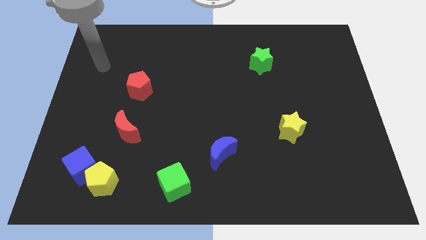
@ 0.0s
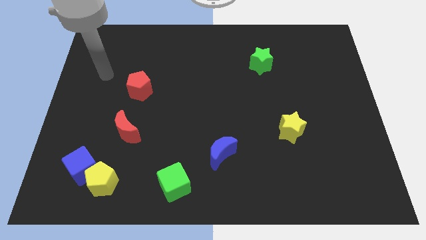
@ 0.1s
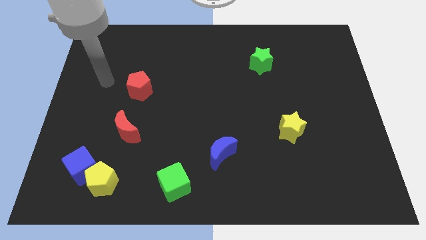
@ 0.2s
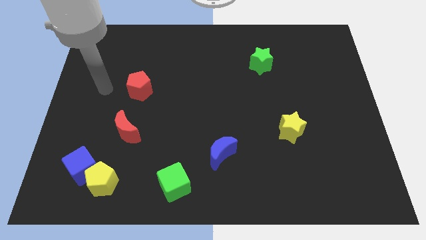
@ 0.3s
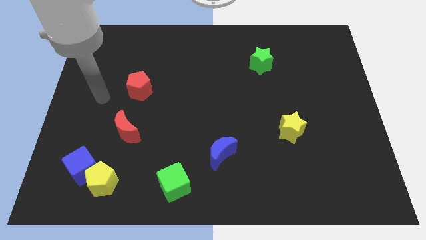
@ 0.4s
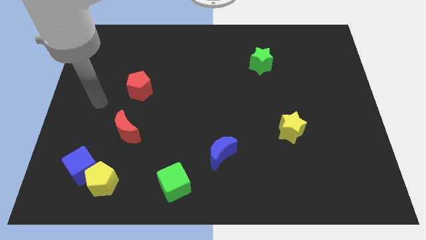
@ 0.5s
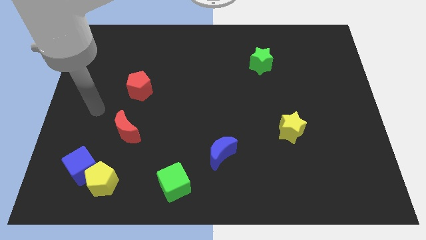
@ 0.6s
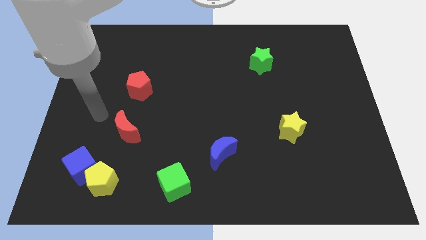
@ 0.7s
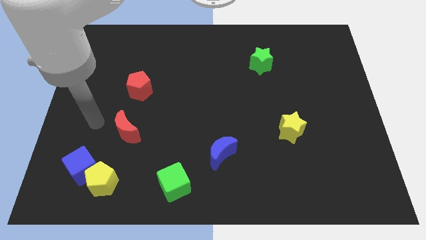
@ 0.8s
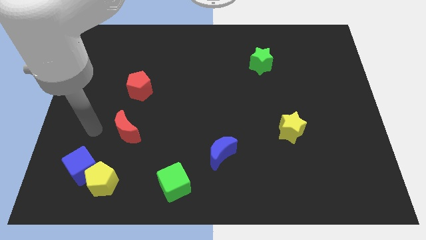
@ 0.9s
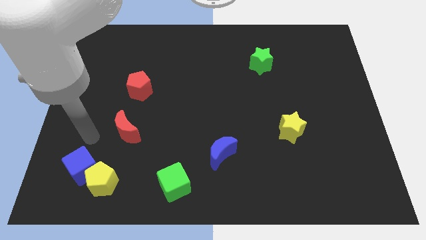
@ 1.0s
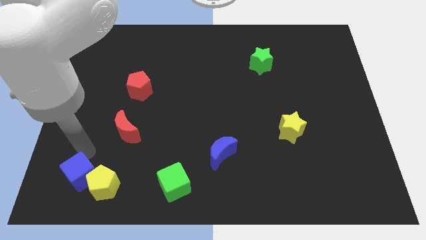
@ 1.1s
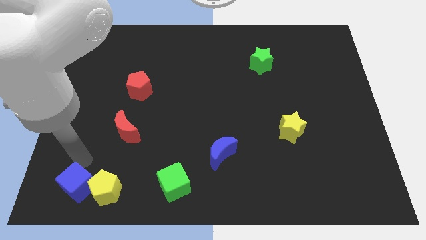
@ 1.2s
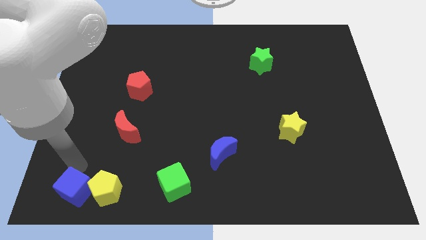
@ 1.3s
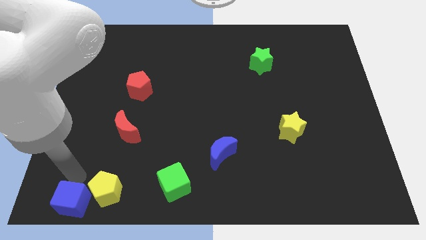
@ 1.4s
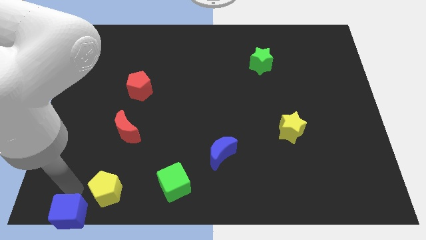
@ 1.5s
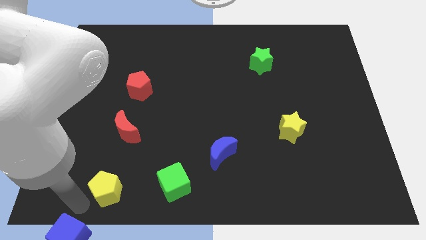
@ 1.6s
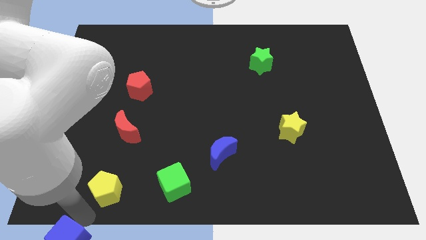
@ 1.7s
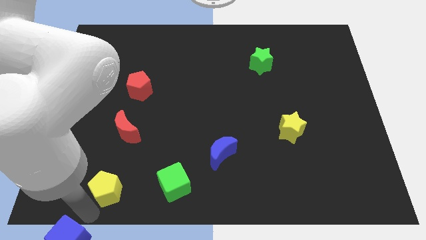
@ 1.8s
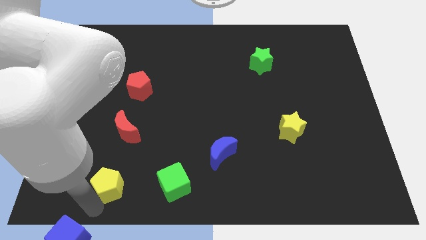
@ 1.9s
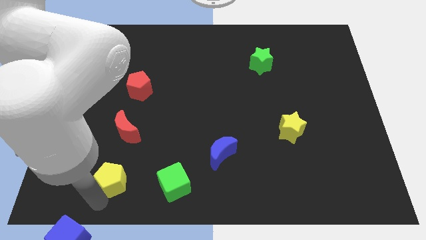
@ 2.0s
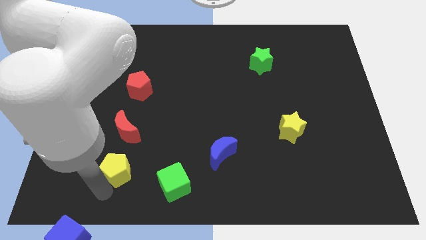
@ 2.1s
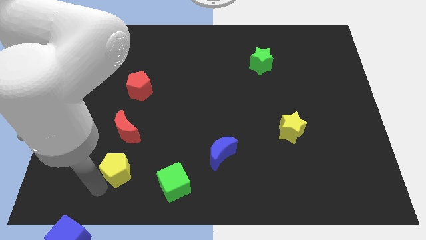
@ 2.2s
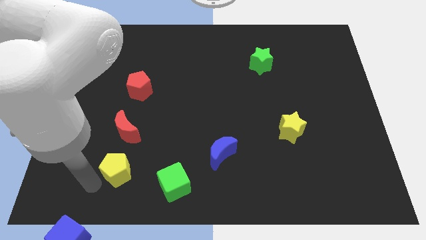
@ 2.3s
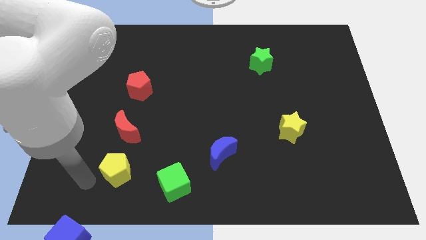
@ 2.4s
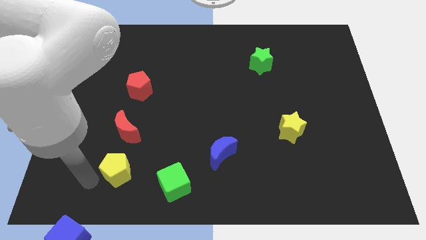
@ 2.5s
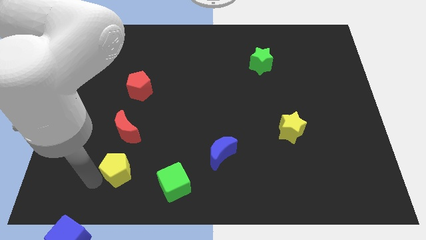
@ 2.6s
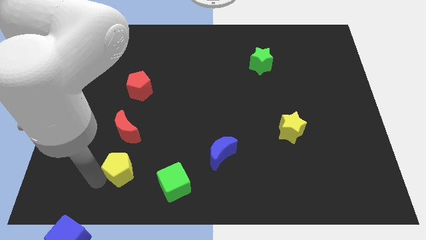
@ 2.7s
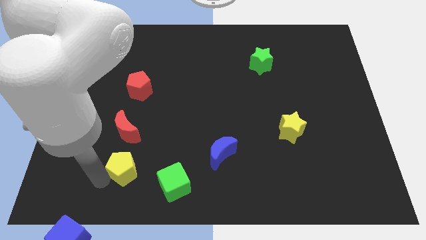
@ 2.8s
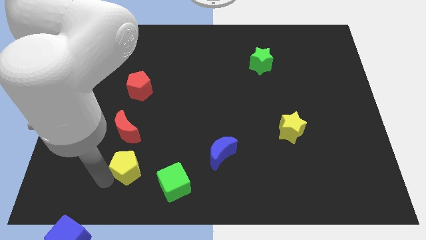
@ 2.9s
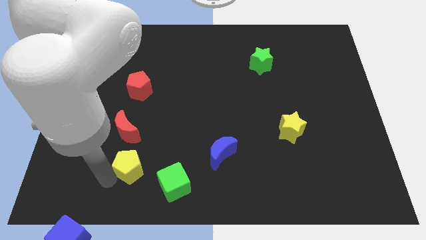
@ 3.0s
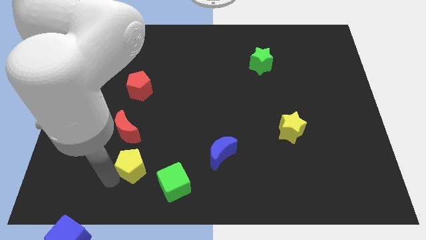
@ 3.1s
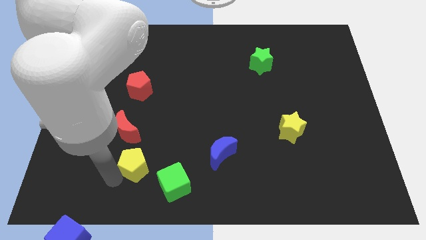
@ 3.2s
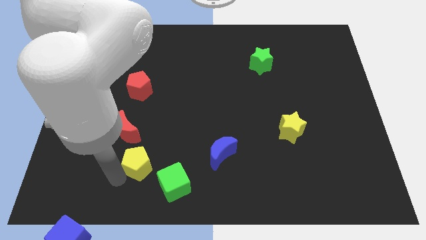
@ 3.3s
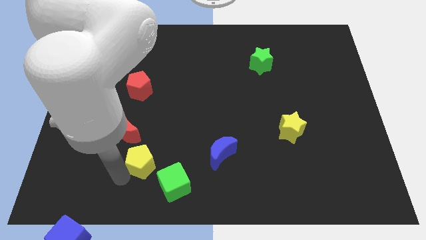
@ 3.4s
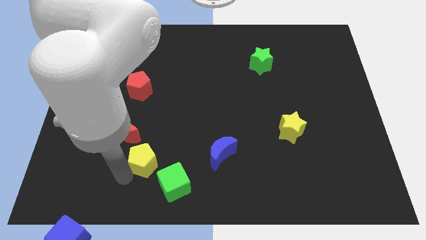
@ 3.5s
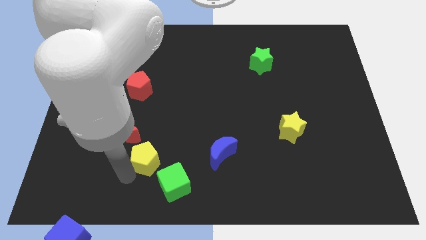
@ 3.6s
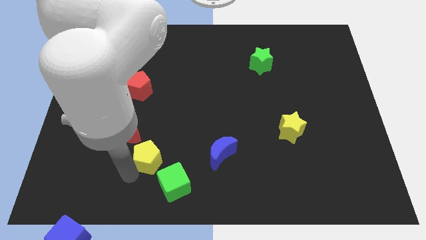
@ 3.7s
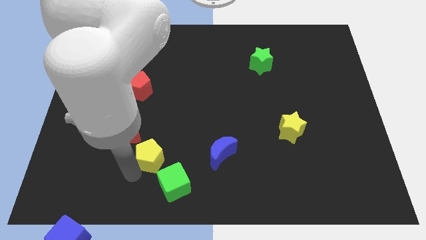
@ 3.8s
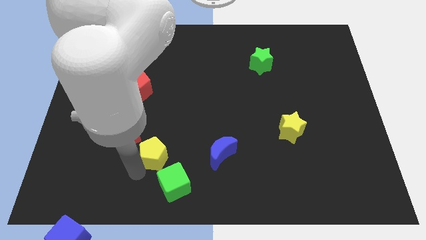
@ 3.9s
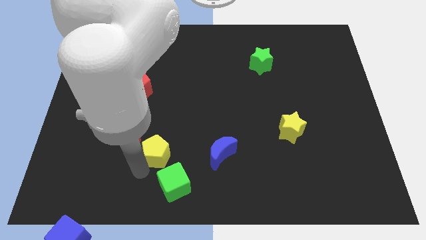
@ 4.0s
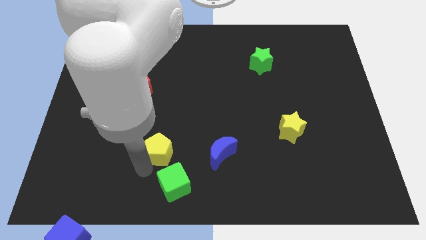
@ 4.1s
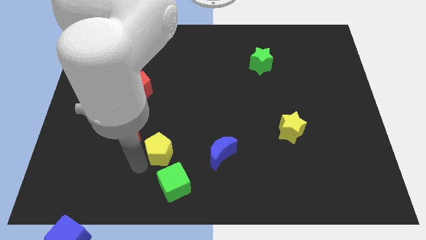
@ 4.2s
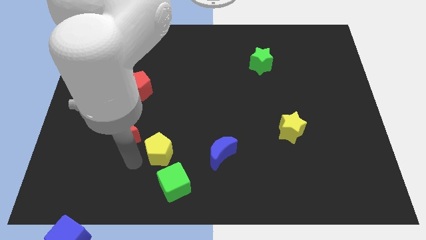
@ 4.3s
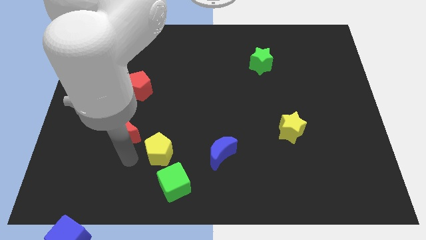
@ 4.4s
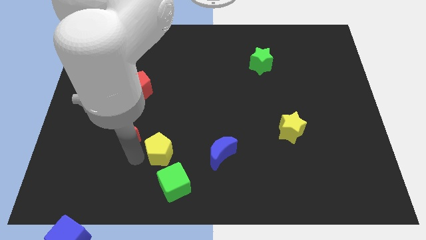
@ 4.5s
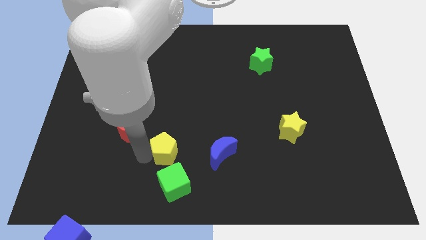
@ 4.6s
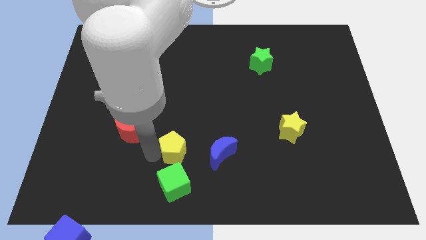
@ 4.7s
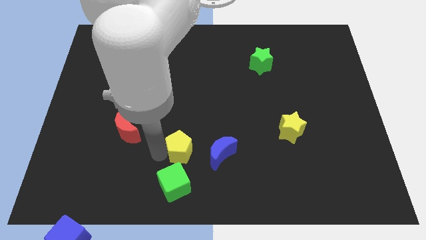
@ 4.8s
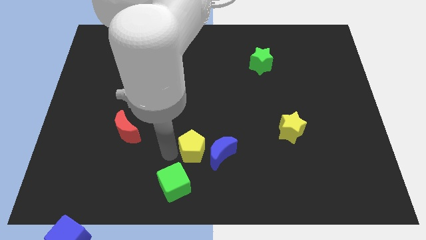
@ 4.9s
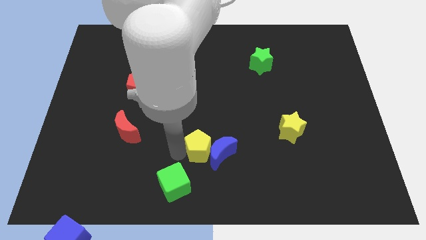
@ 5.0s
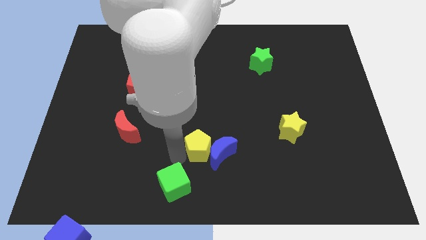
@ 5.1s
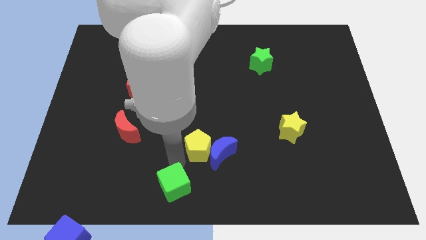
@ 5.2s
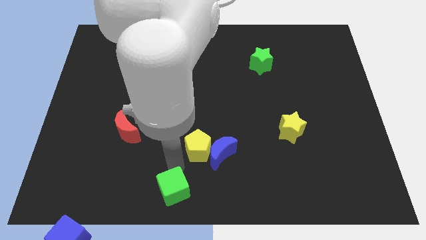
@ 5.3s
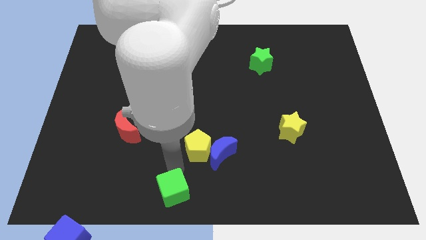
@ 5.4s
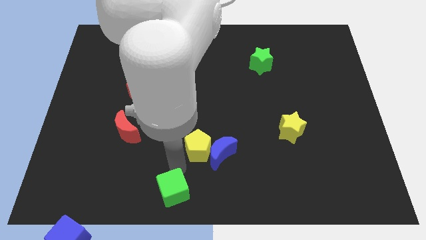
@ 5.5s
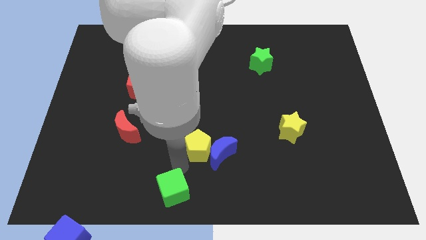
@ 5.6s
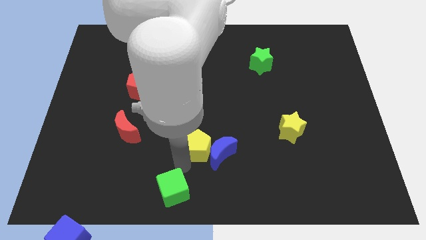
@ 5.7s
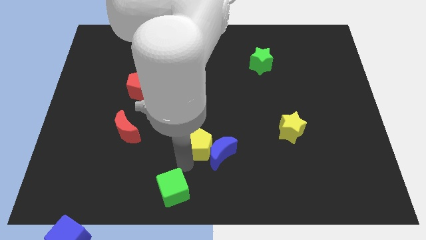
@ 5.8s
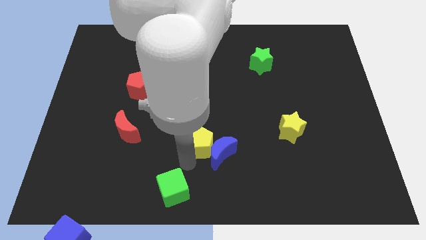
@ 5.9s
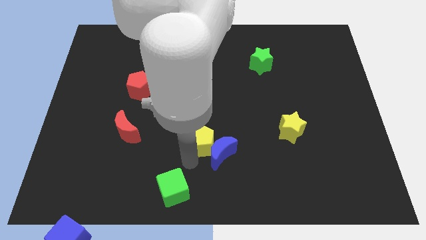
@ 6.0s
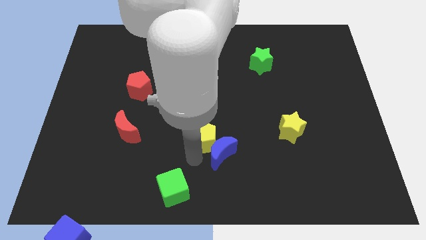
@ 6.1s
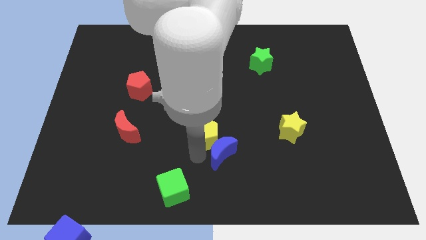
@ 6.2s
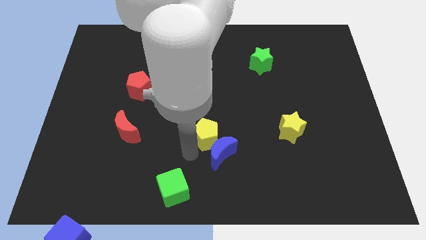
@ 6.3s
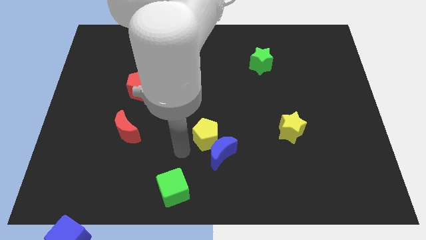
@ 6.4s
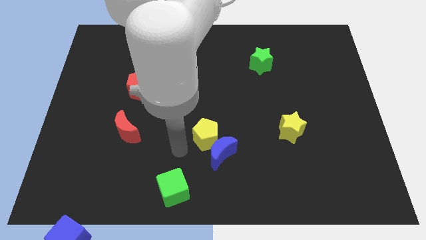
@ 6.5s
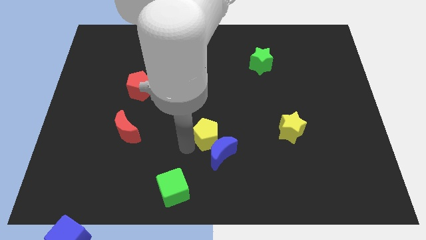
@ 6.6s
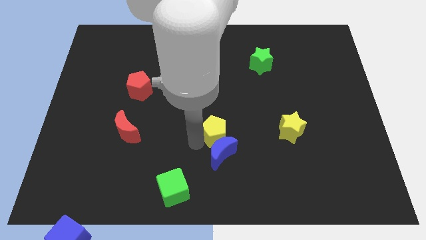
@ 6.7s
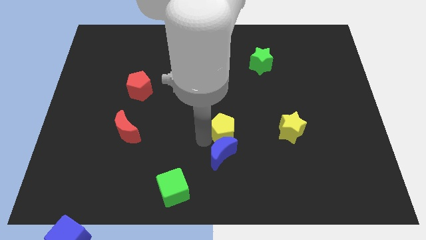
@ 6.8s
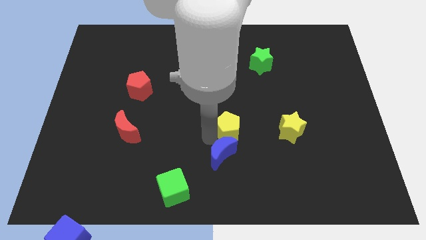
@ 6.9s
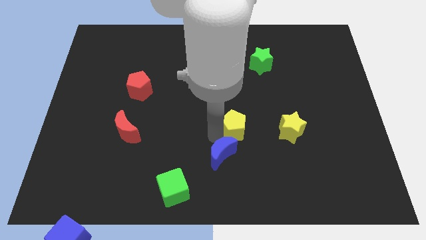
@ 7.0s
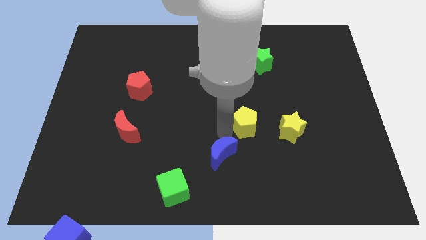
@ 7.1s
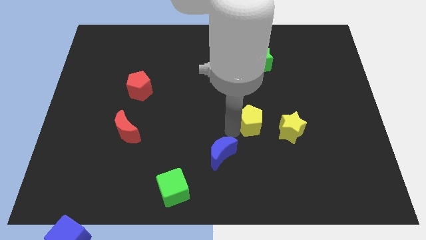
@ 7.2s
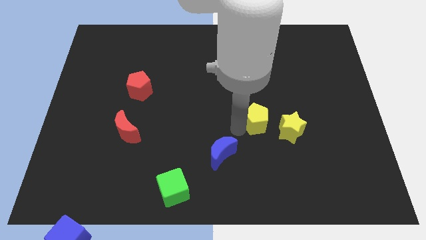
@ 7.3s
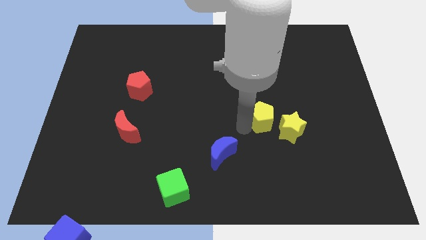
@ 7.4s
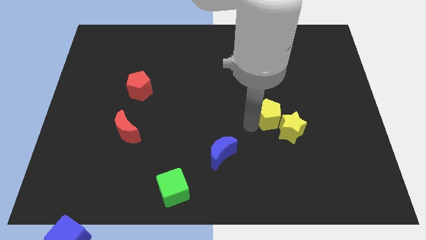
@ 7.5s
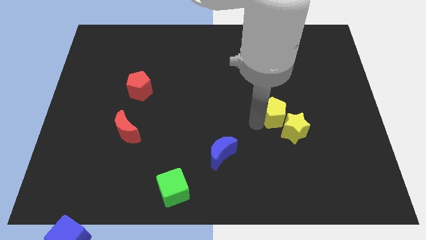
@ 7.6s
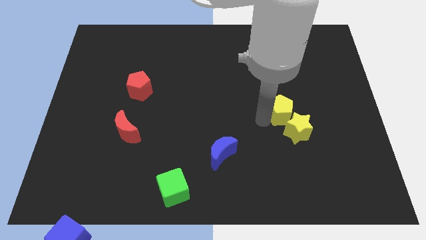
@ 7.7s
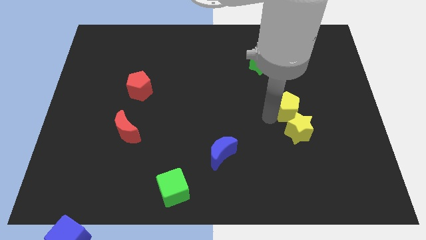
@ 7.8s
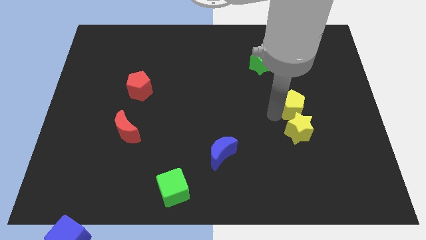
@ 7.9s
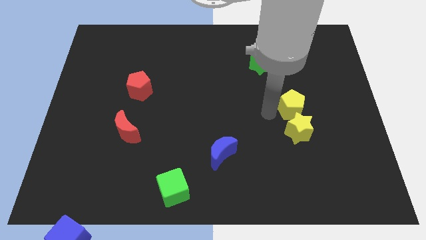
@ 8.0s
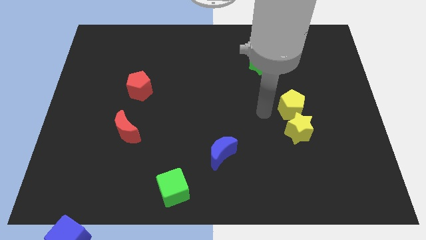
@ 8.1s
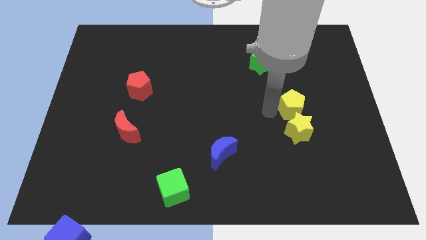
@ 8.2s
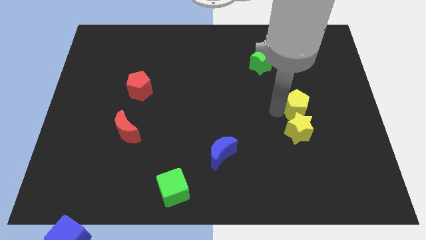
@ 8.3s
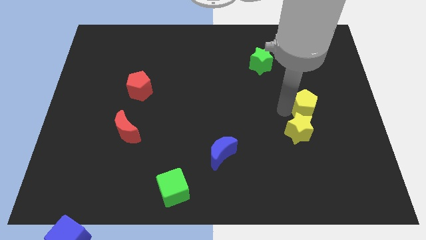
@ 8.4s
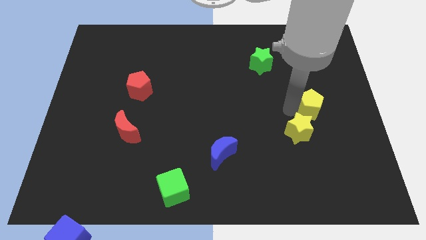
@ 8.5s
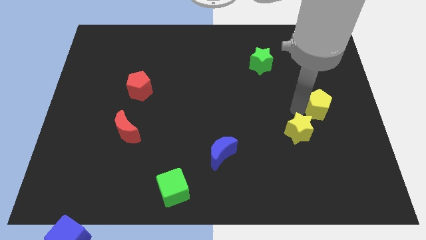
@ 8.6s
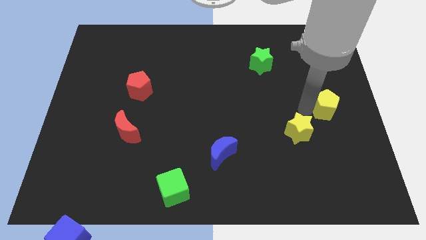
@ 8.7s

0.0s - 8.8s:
push the yellow pentagon to the right side
